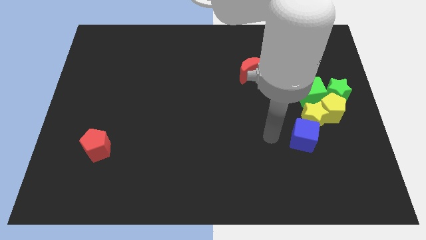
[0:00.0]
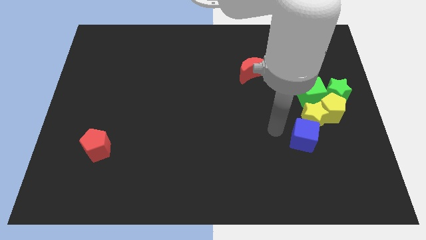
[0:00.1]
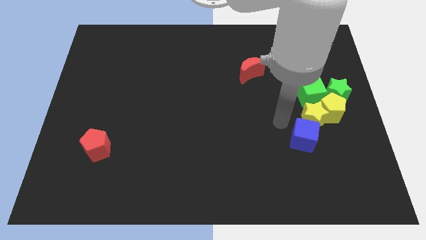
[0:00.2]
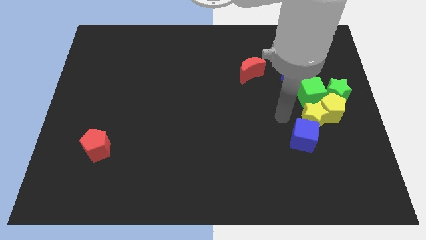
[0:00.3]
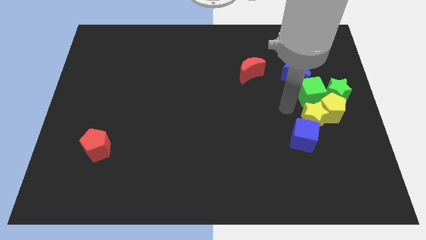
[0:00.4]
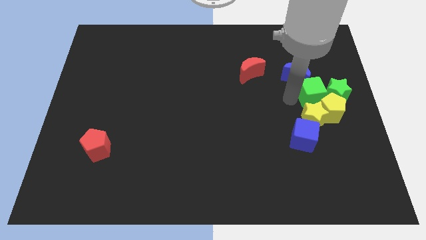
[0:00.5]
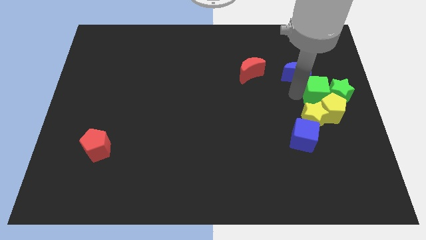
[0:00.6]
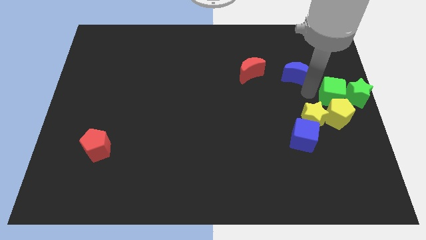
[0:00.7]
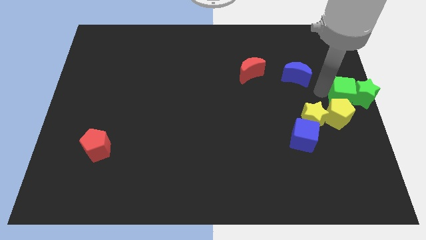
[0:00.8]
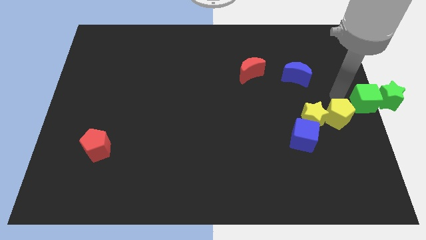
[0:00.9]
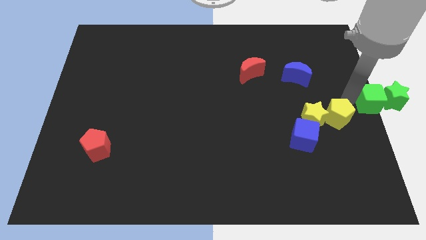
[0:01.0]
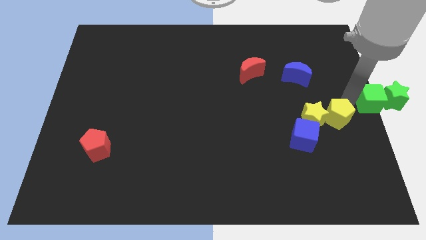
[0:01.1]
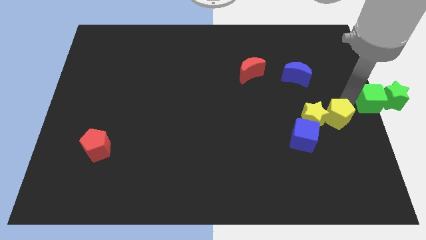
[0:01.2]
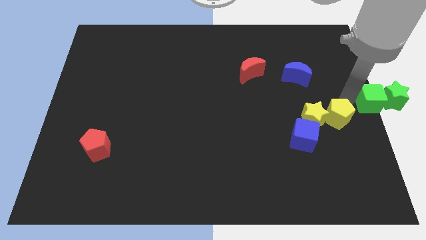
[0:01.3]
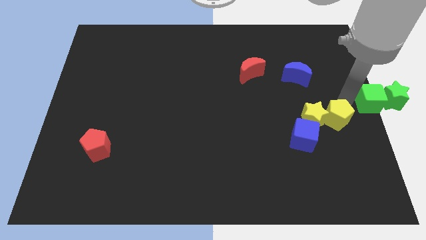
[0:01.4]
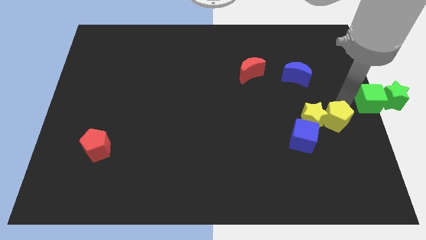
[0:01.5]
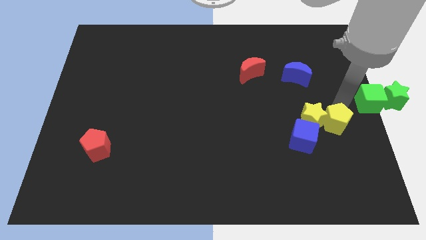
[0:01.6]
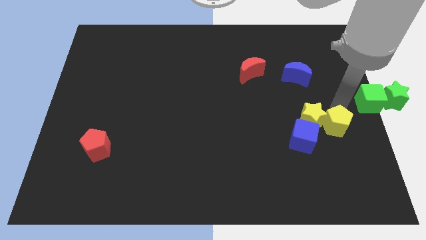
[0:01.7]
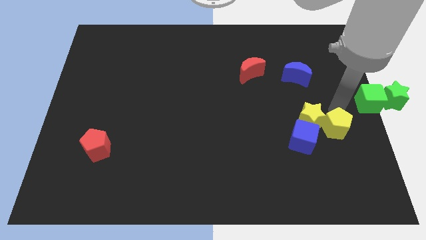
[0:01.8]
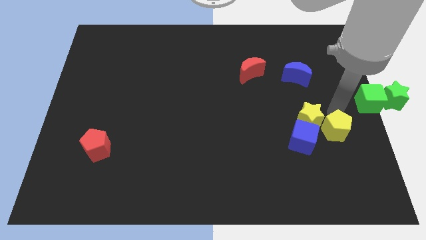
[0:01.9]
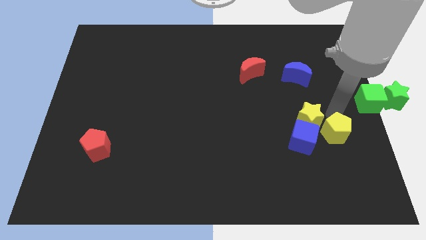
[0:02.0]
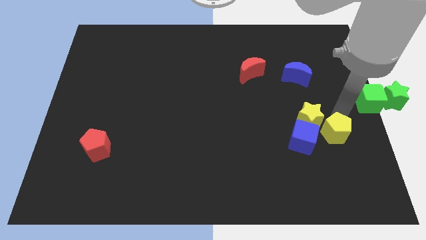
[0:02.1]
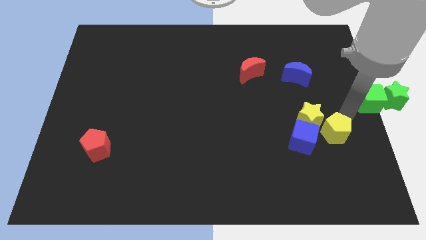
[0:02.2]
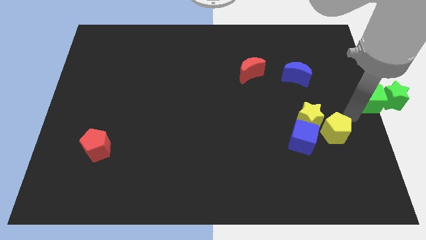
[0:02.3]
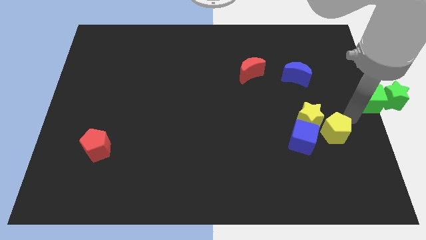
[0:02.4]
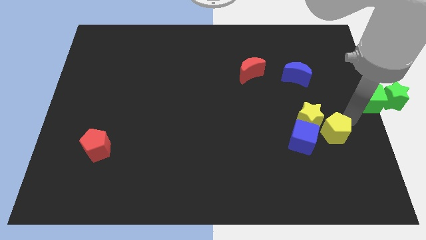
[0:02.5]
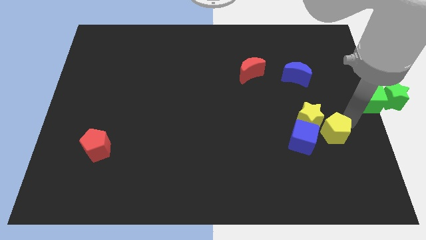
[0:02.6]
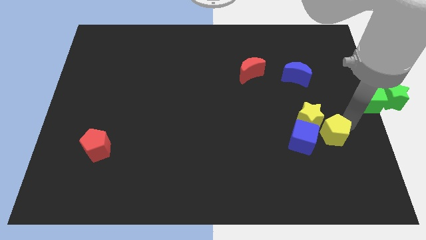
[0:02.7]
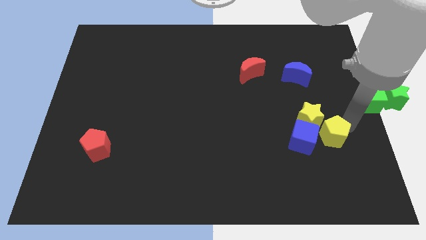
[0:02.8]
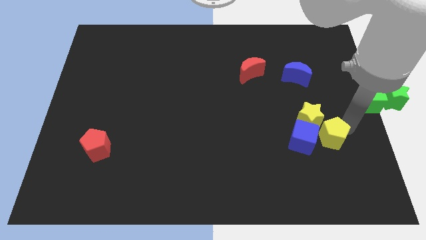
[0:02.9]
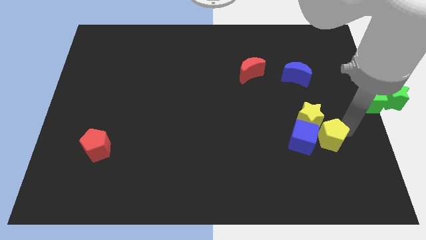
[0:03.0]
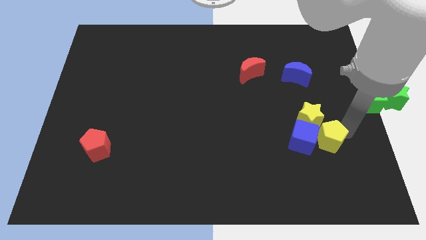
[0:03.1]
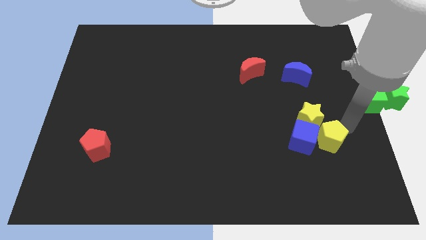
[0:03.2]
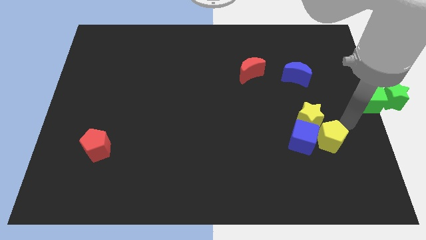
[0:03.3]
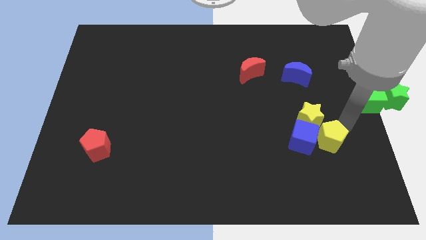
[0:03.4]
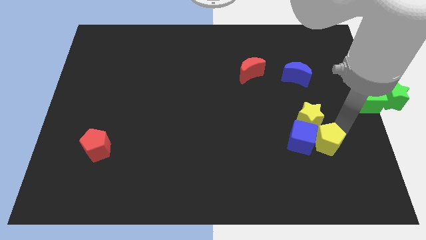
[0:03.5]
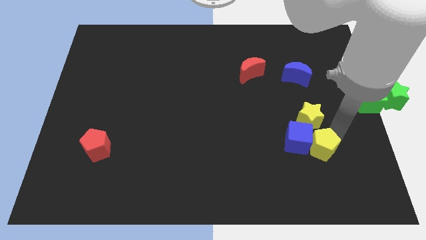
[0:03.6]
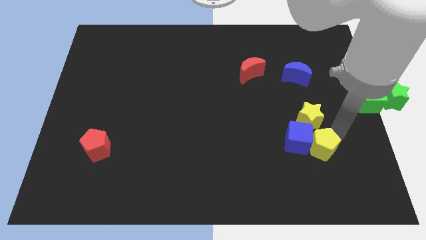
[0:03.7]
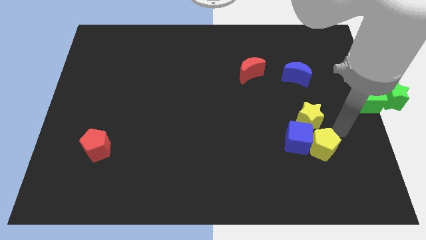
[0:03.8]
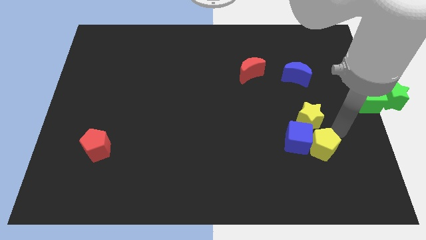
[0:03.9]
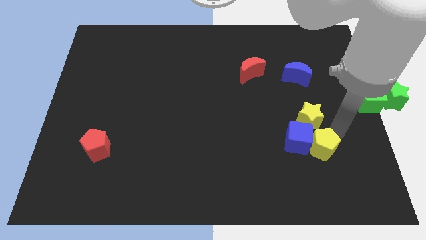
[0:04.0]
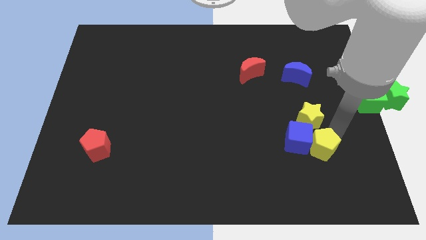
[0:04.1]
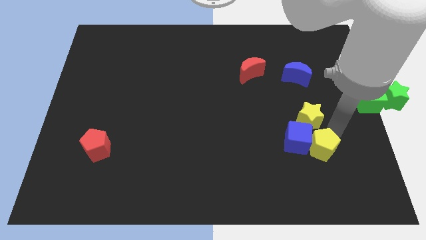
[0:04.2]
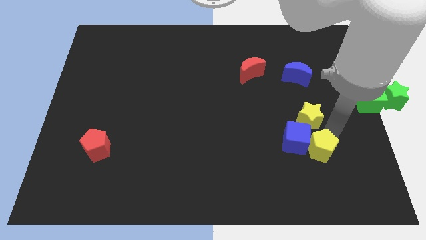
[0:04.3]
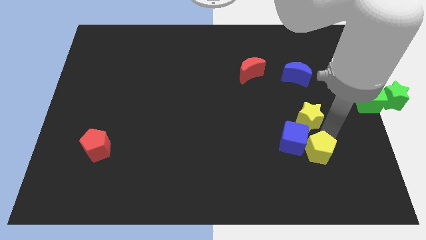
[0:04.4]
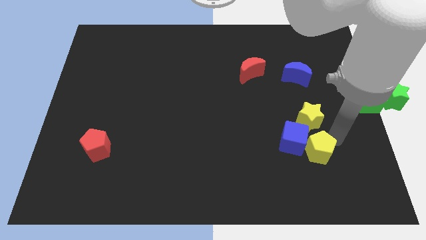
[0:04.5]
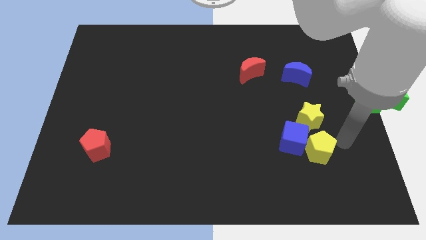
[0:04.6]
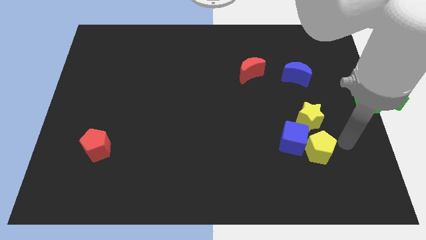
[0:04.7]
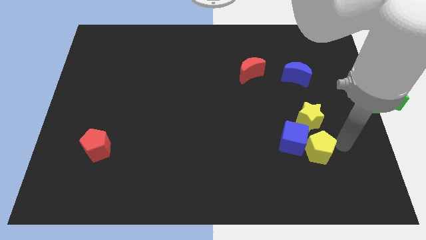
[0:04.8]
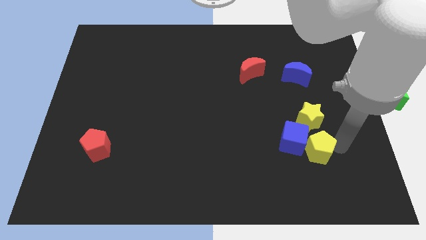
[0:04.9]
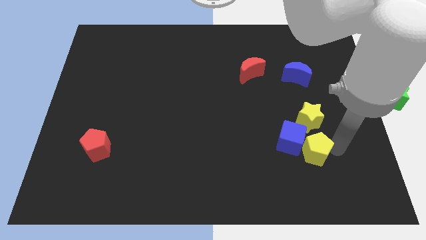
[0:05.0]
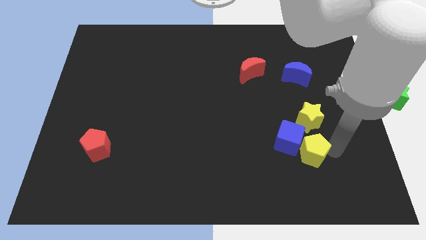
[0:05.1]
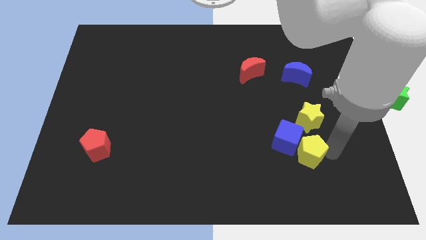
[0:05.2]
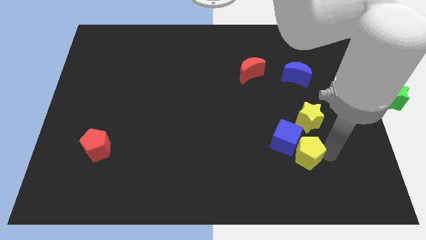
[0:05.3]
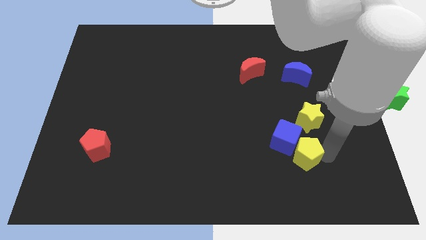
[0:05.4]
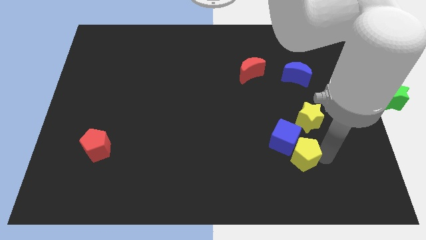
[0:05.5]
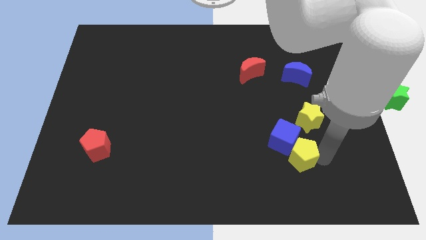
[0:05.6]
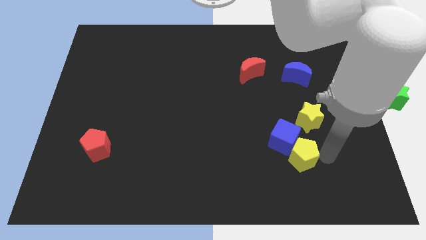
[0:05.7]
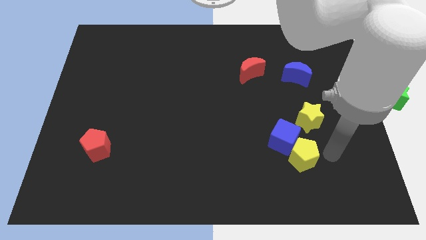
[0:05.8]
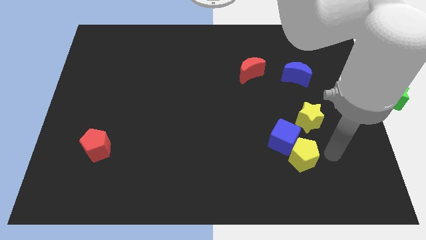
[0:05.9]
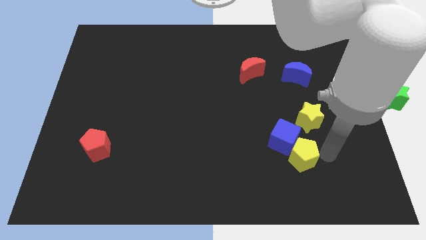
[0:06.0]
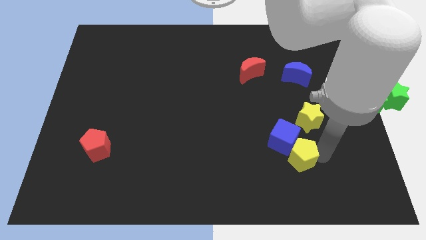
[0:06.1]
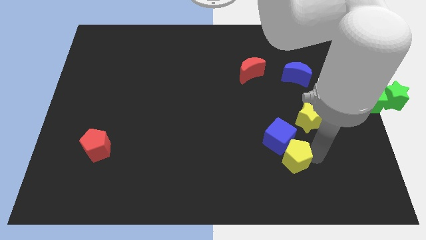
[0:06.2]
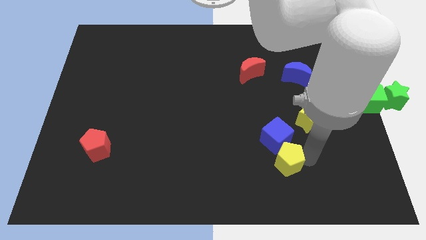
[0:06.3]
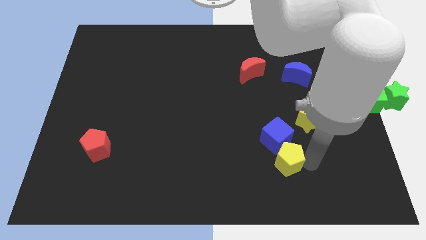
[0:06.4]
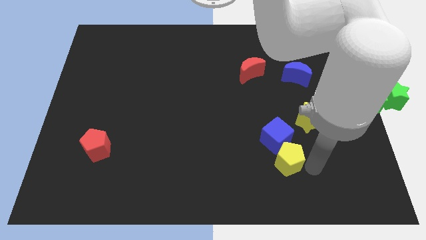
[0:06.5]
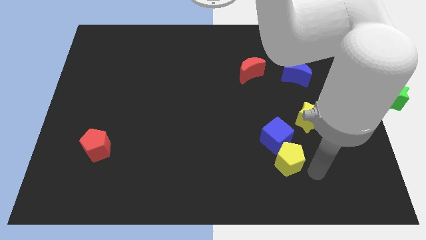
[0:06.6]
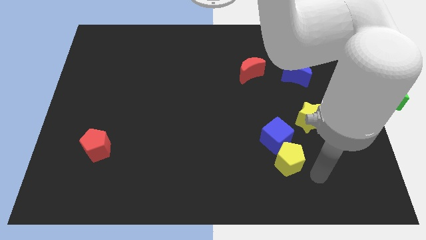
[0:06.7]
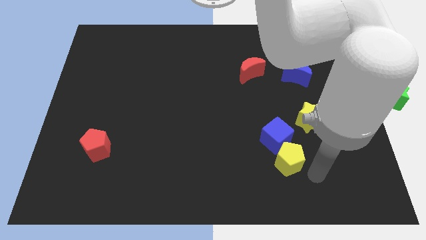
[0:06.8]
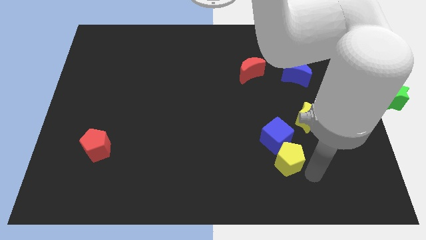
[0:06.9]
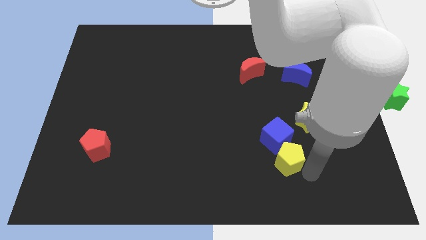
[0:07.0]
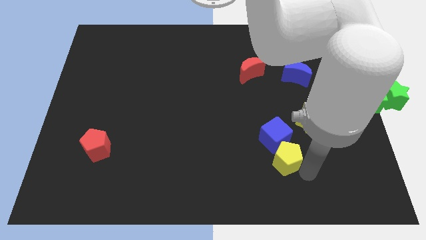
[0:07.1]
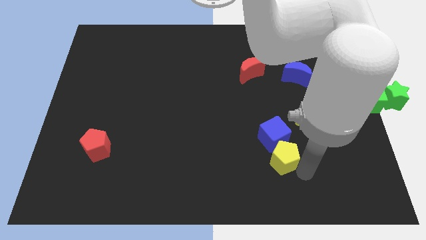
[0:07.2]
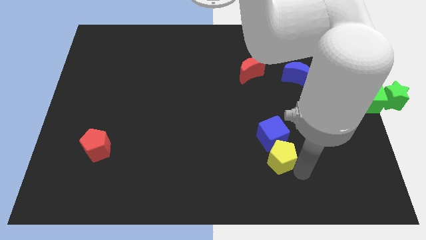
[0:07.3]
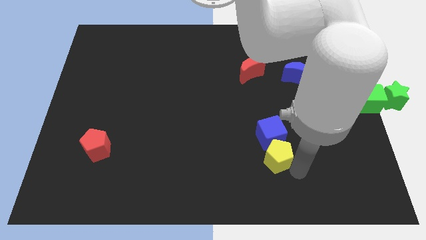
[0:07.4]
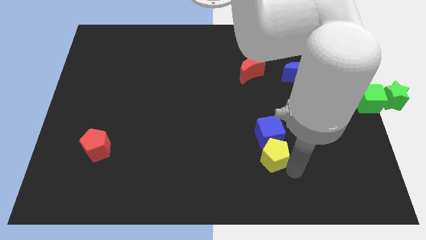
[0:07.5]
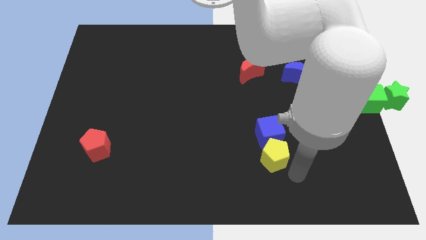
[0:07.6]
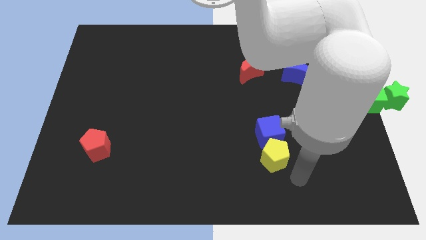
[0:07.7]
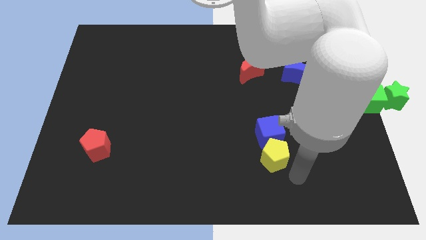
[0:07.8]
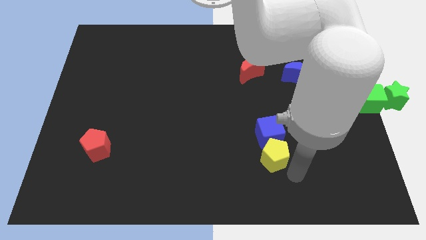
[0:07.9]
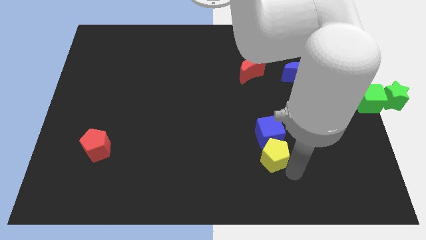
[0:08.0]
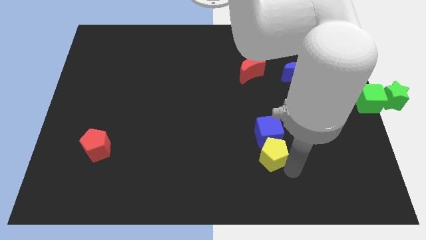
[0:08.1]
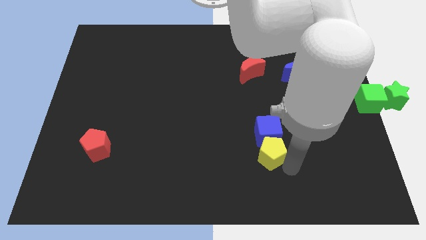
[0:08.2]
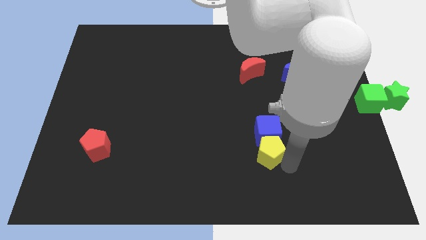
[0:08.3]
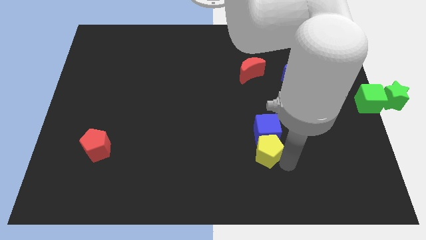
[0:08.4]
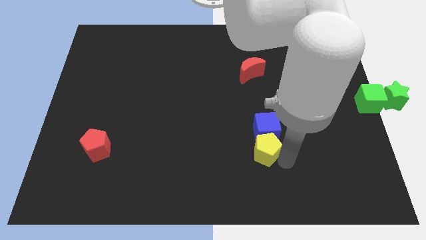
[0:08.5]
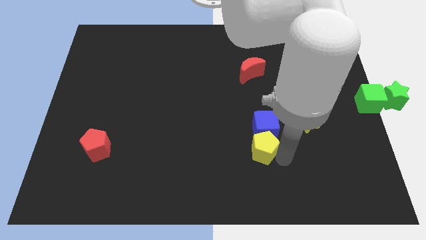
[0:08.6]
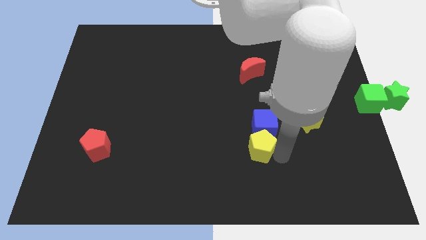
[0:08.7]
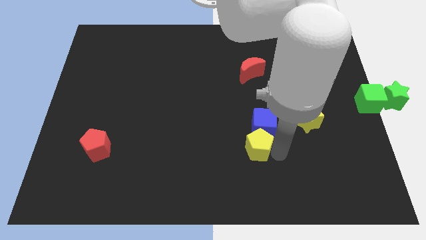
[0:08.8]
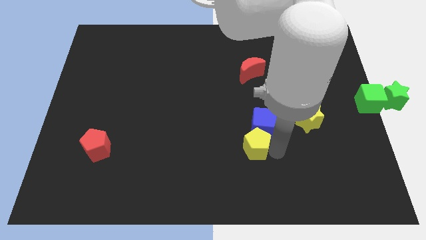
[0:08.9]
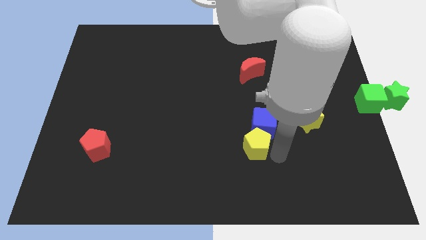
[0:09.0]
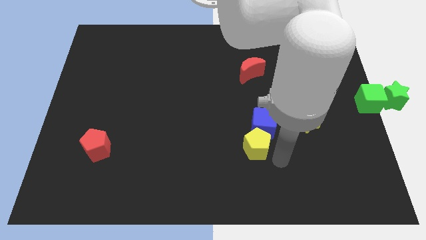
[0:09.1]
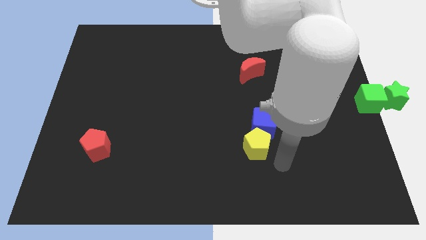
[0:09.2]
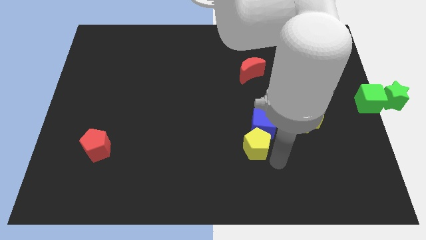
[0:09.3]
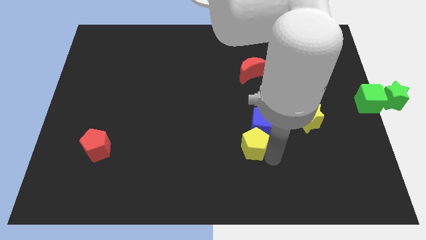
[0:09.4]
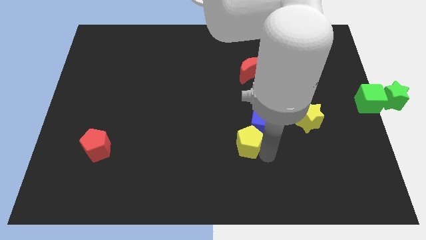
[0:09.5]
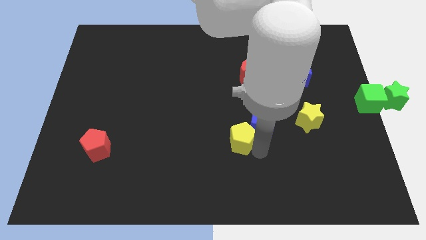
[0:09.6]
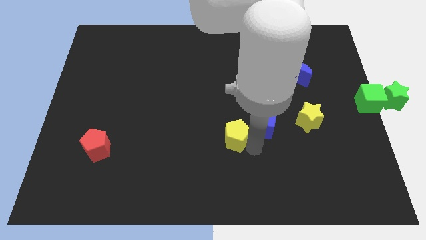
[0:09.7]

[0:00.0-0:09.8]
slide the yellow pentagon to the left
